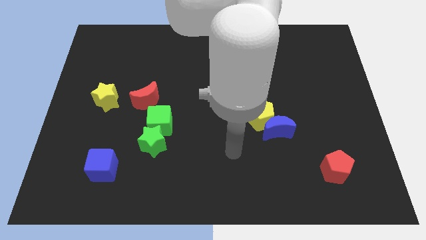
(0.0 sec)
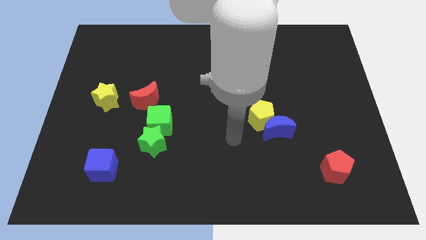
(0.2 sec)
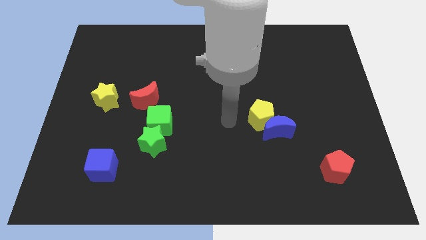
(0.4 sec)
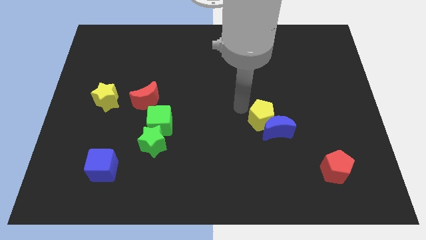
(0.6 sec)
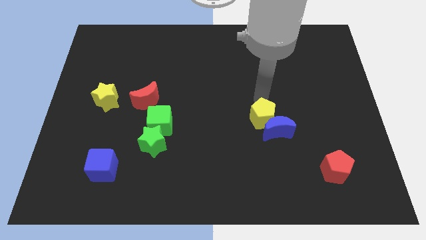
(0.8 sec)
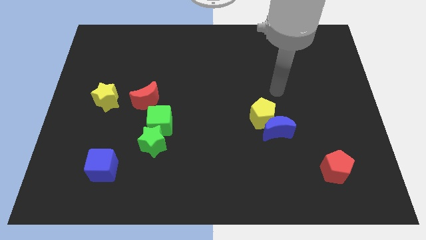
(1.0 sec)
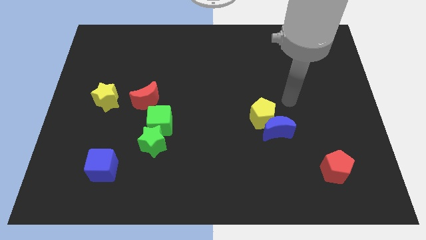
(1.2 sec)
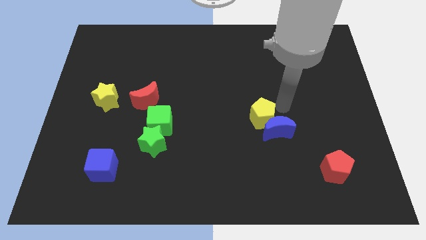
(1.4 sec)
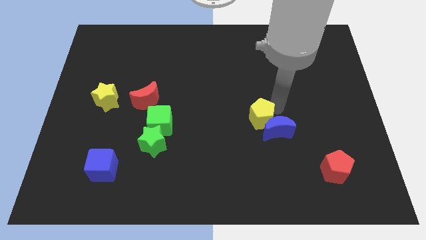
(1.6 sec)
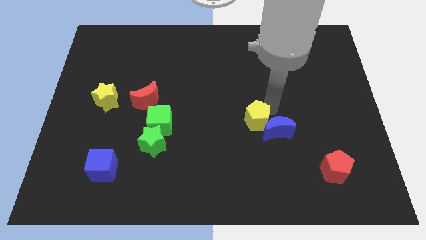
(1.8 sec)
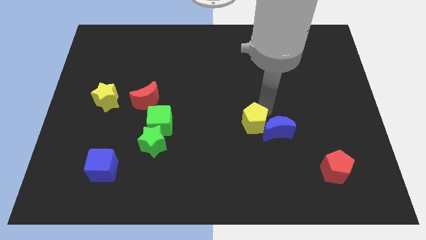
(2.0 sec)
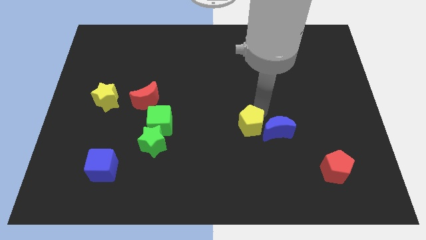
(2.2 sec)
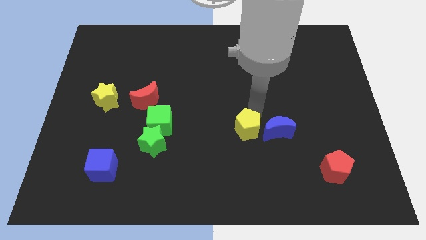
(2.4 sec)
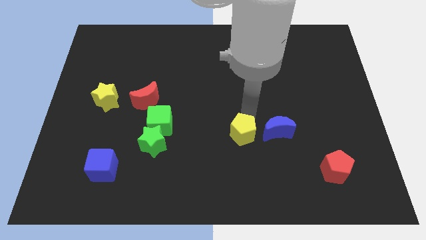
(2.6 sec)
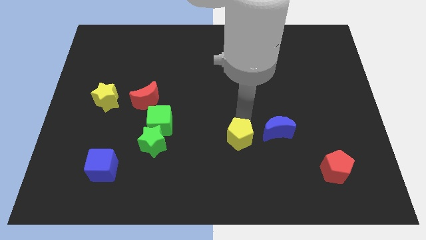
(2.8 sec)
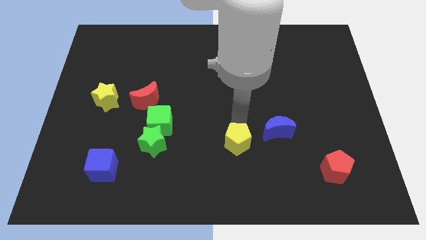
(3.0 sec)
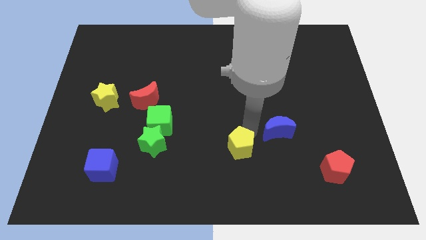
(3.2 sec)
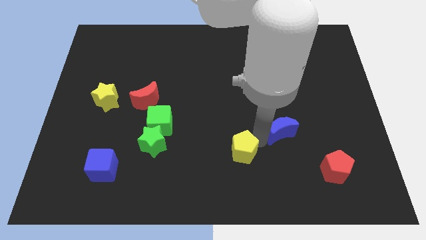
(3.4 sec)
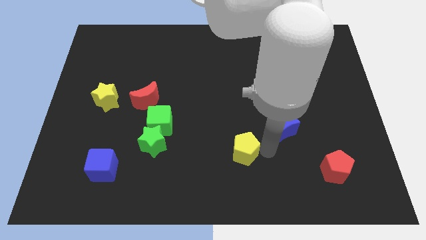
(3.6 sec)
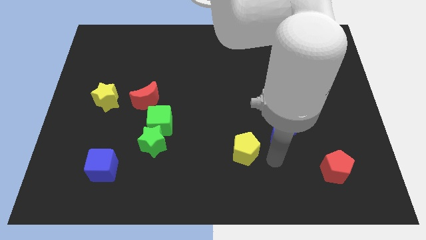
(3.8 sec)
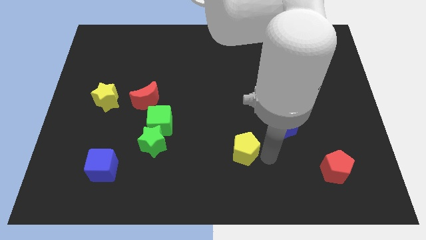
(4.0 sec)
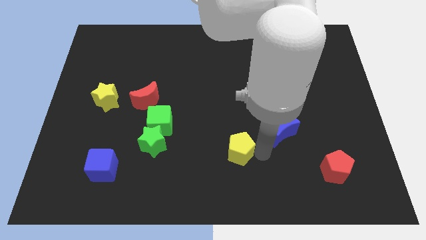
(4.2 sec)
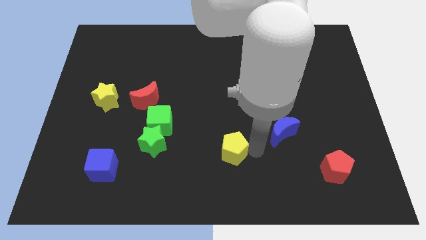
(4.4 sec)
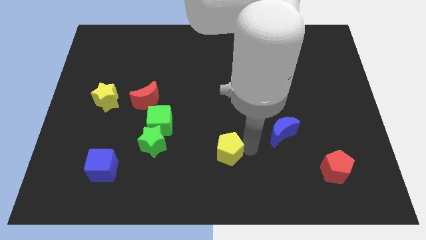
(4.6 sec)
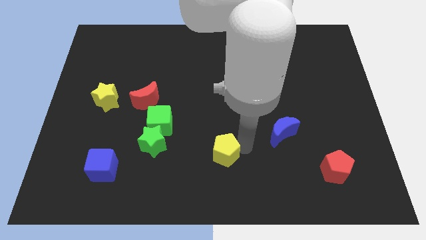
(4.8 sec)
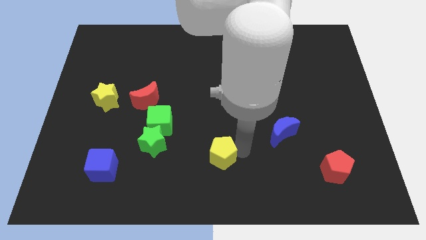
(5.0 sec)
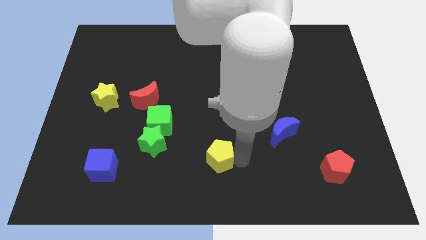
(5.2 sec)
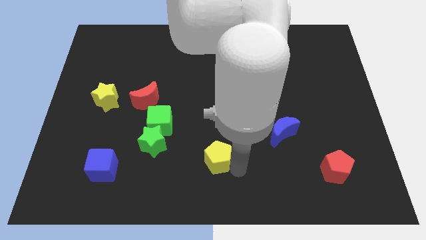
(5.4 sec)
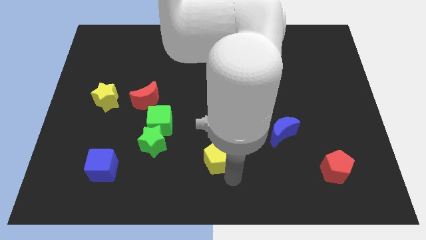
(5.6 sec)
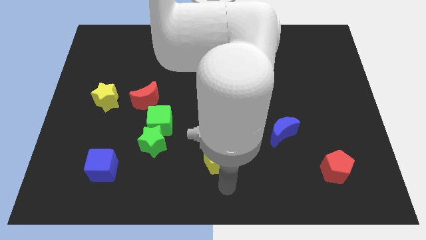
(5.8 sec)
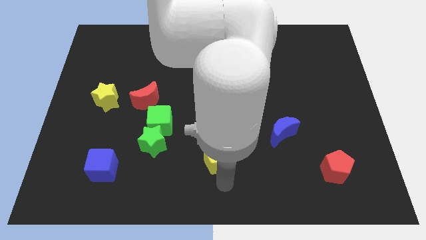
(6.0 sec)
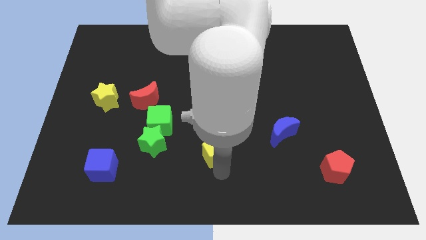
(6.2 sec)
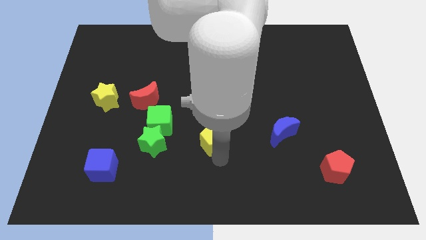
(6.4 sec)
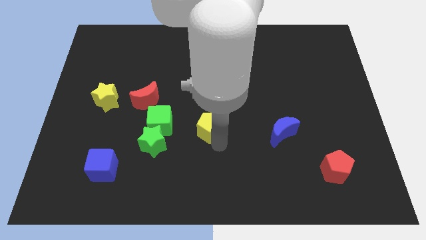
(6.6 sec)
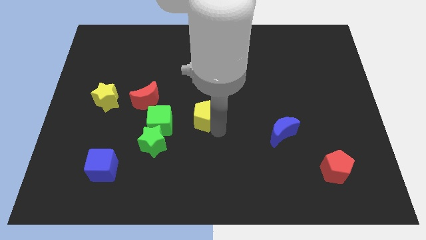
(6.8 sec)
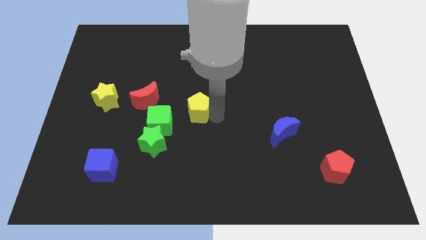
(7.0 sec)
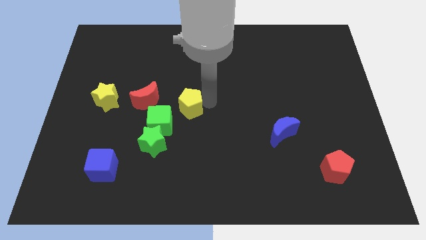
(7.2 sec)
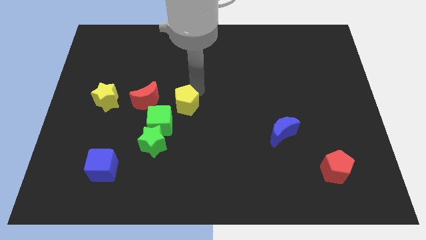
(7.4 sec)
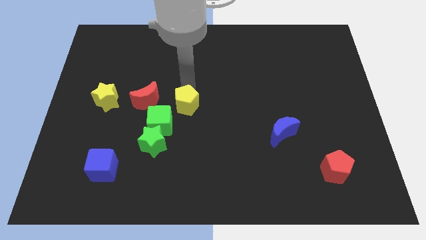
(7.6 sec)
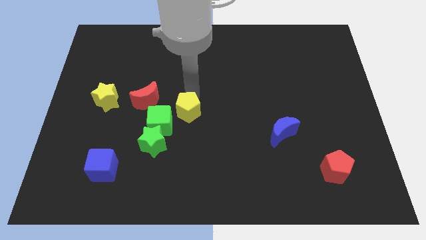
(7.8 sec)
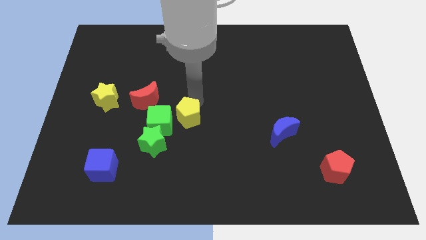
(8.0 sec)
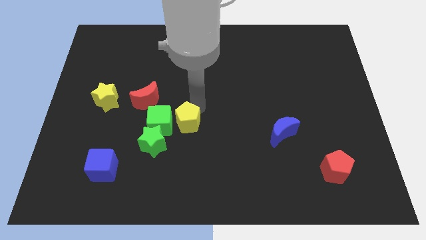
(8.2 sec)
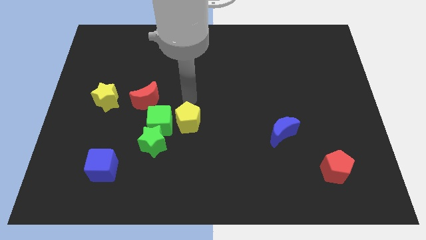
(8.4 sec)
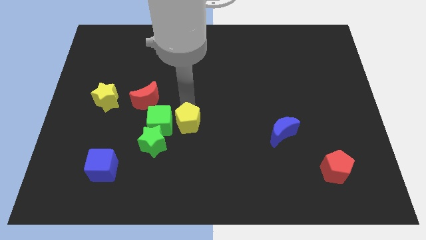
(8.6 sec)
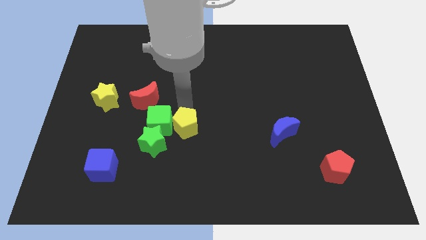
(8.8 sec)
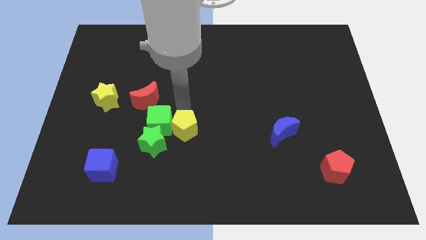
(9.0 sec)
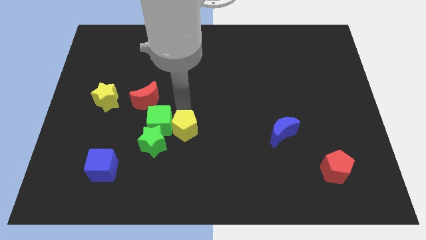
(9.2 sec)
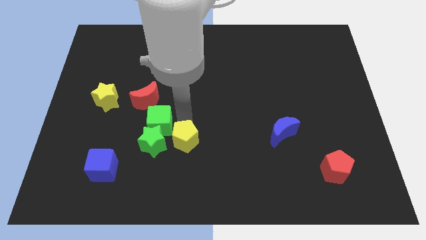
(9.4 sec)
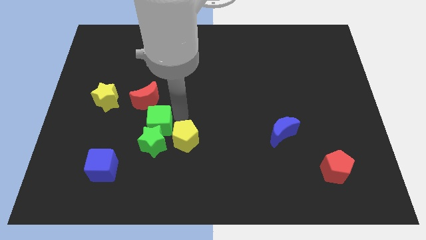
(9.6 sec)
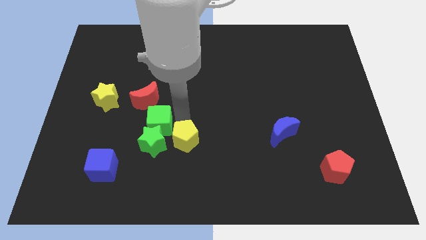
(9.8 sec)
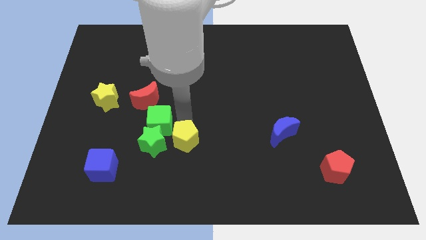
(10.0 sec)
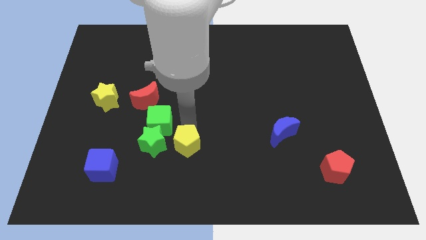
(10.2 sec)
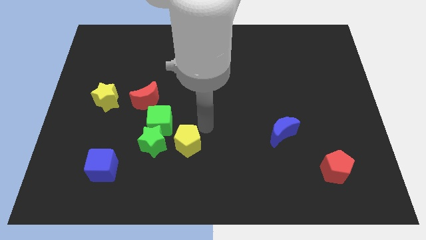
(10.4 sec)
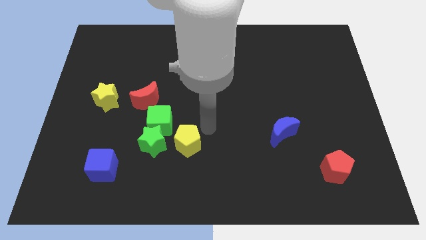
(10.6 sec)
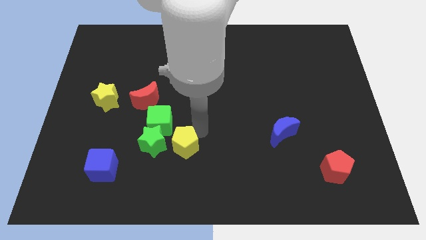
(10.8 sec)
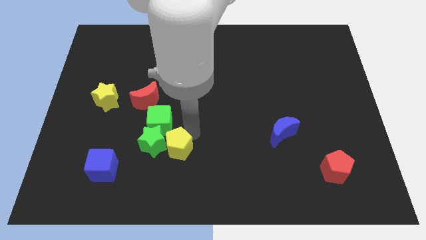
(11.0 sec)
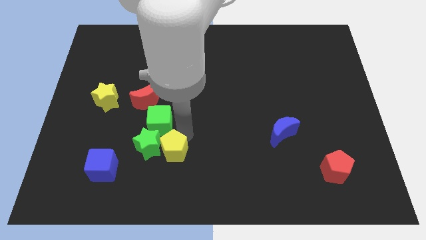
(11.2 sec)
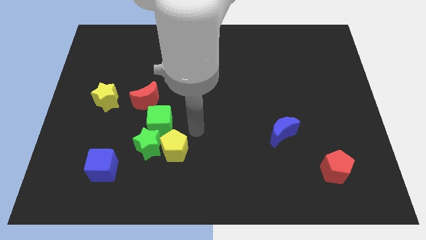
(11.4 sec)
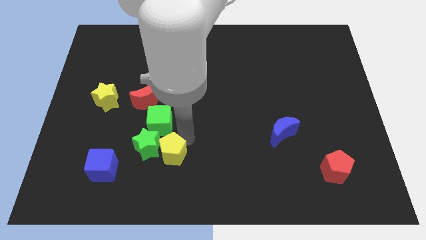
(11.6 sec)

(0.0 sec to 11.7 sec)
move the yellow pentagon to the right side of the blue cube

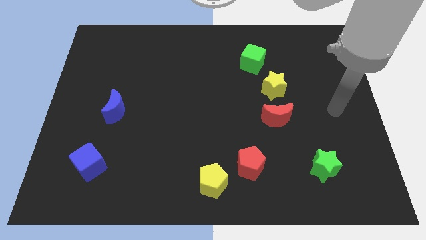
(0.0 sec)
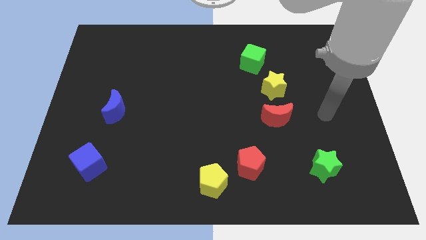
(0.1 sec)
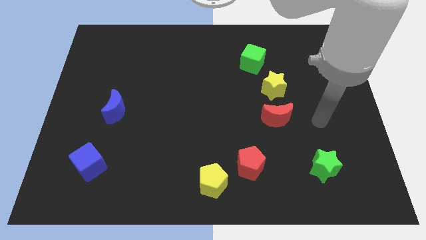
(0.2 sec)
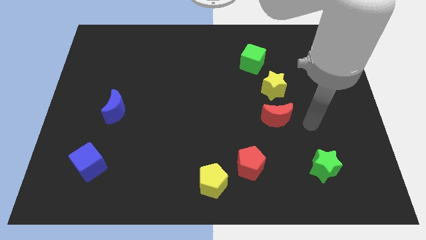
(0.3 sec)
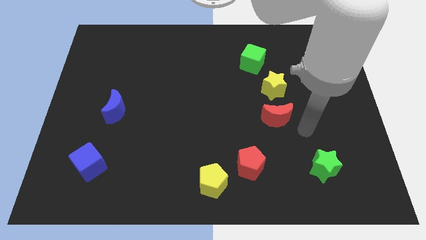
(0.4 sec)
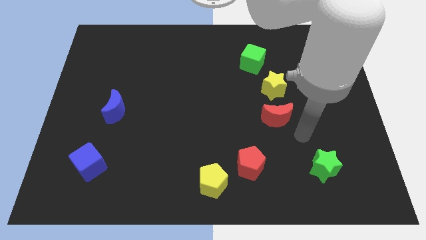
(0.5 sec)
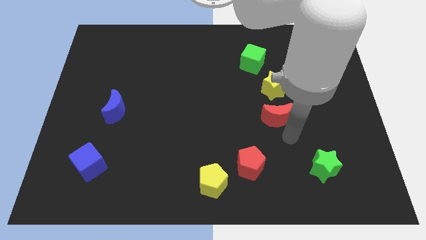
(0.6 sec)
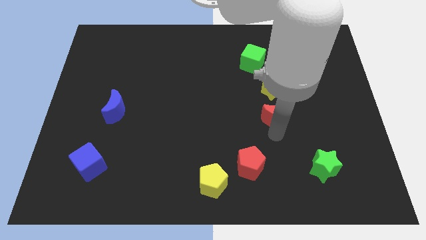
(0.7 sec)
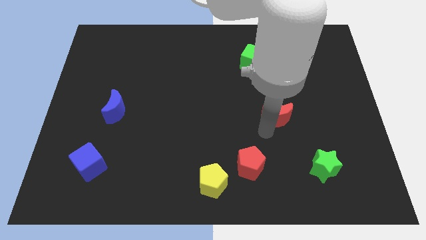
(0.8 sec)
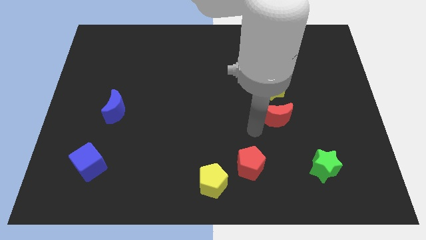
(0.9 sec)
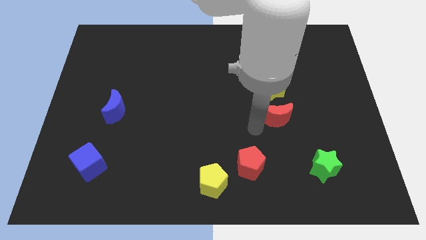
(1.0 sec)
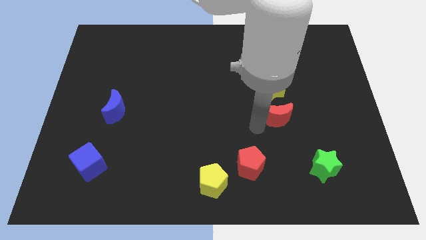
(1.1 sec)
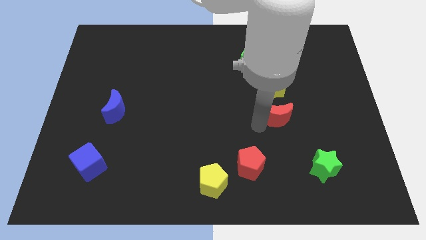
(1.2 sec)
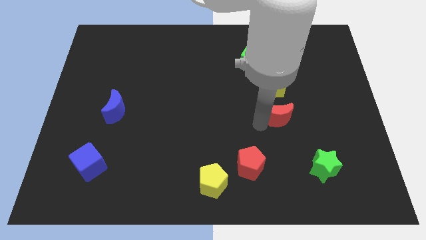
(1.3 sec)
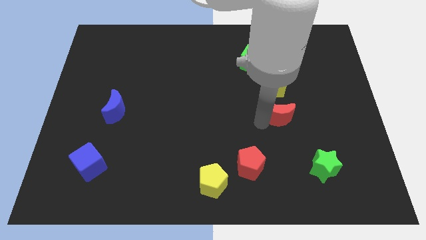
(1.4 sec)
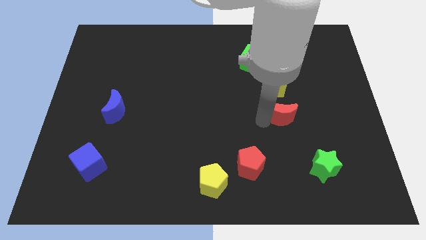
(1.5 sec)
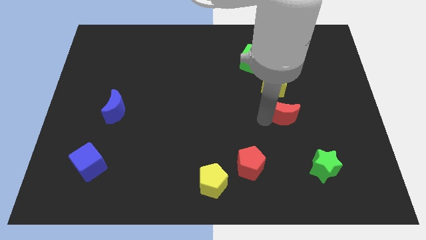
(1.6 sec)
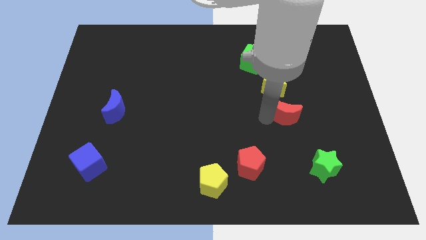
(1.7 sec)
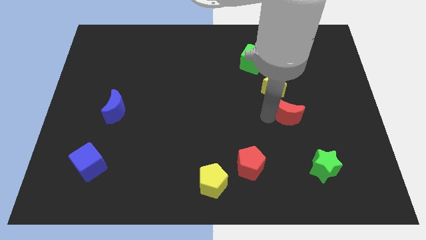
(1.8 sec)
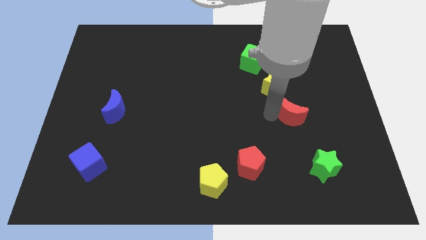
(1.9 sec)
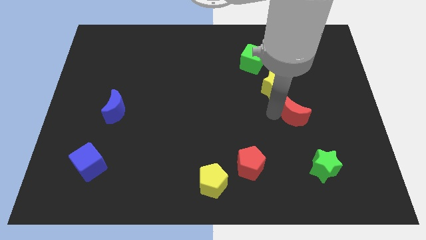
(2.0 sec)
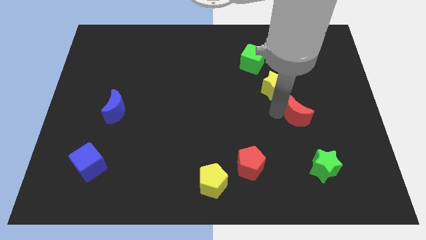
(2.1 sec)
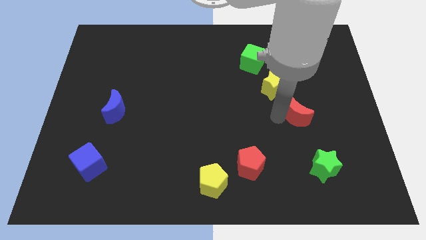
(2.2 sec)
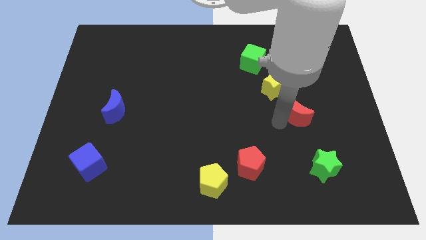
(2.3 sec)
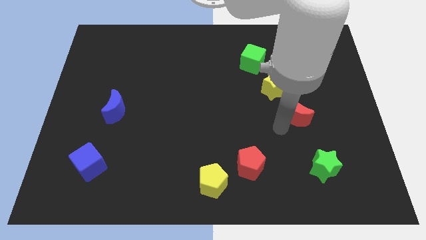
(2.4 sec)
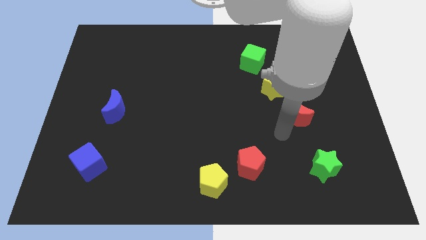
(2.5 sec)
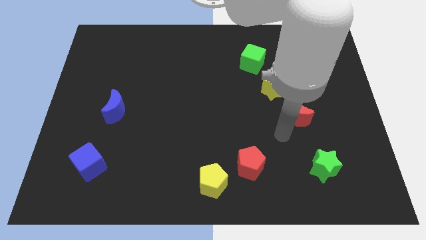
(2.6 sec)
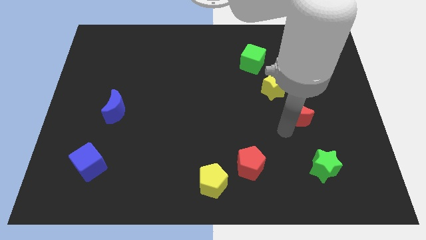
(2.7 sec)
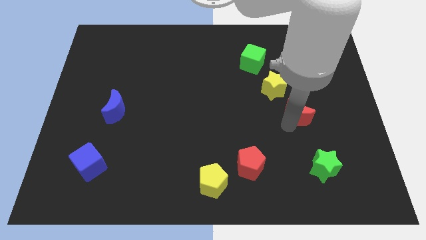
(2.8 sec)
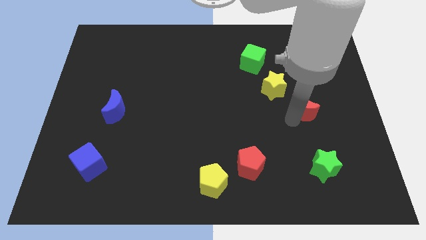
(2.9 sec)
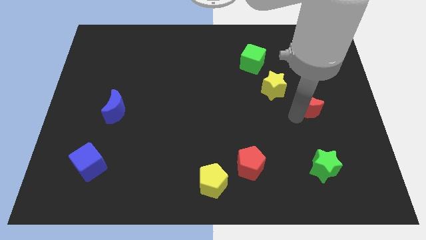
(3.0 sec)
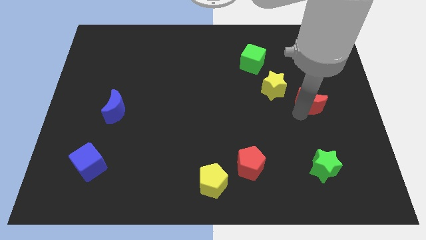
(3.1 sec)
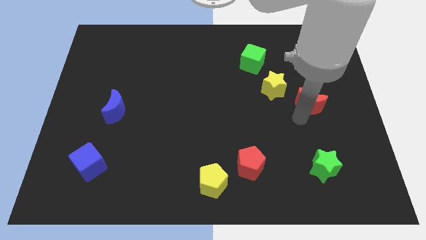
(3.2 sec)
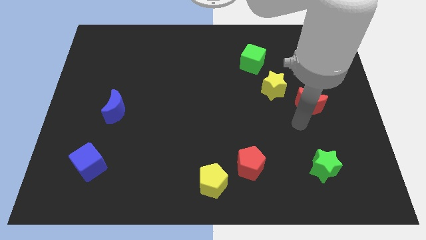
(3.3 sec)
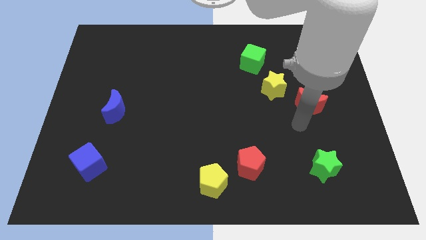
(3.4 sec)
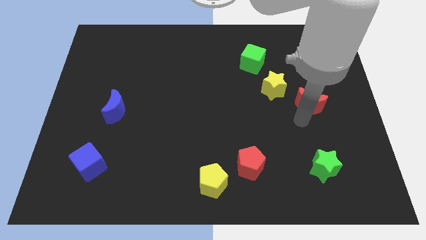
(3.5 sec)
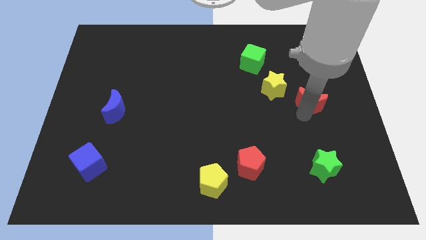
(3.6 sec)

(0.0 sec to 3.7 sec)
push the red moon to the right of the yellow star
